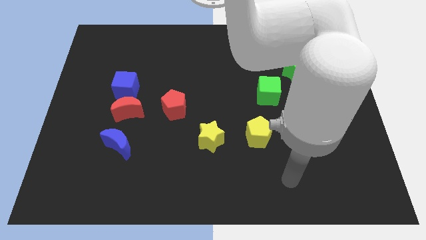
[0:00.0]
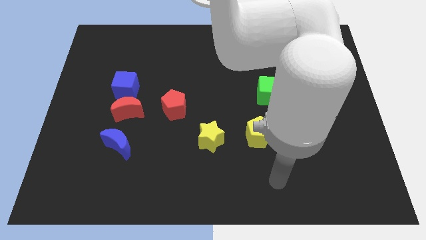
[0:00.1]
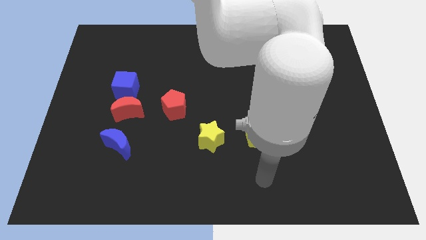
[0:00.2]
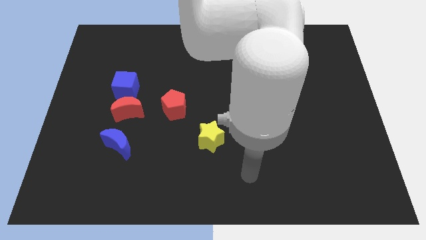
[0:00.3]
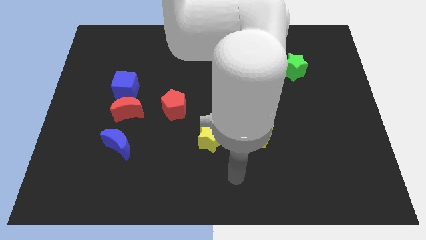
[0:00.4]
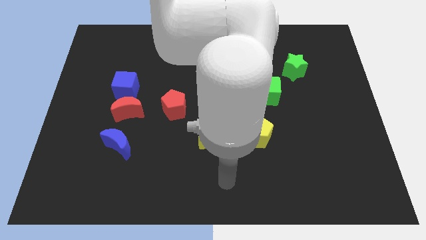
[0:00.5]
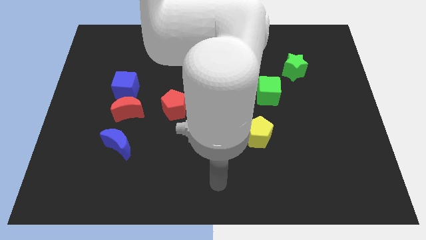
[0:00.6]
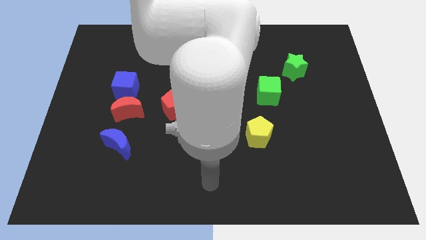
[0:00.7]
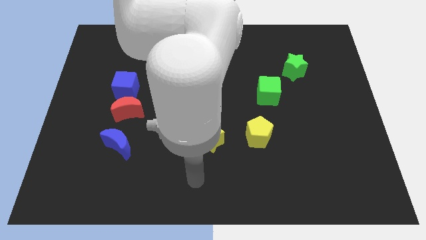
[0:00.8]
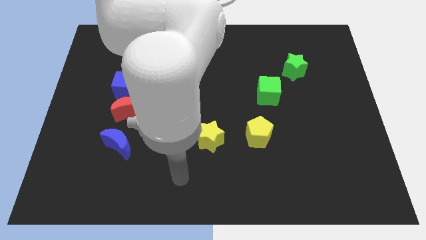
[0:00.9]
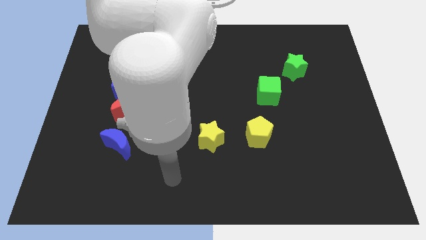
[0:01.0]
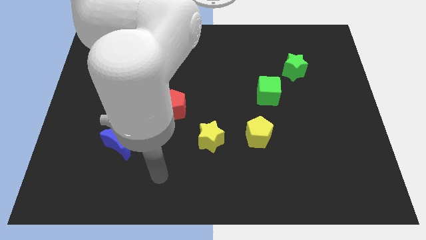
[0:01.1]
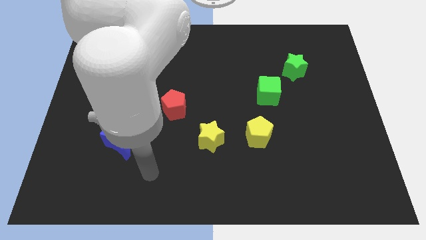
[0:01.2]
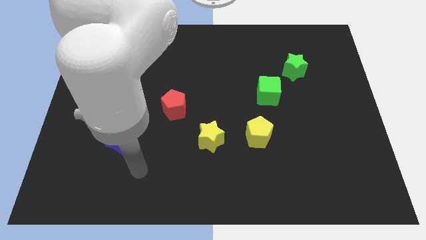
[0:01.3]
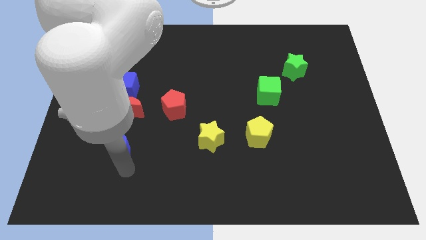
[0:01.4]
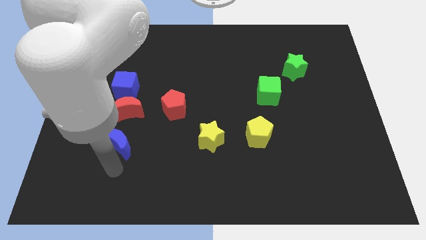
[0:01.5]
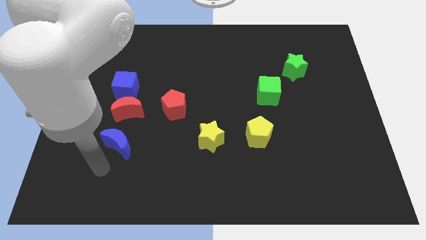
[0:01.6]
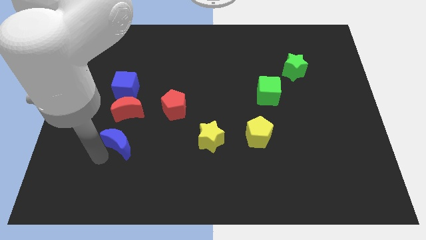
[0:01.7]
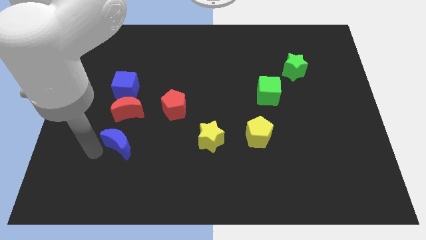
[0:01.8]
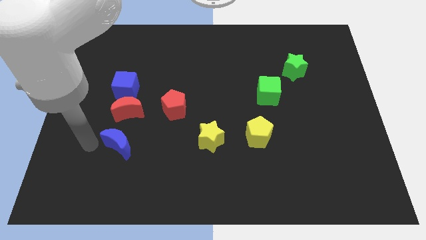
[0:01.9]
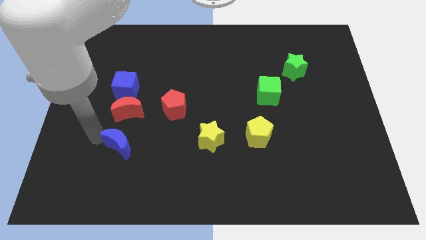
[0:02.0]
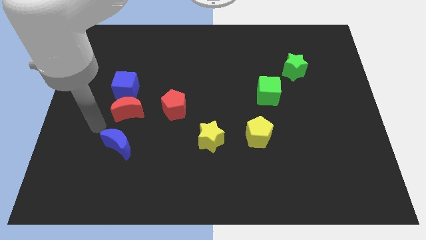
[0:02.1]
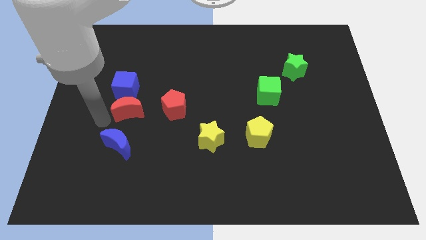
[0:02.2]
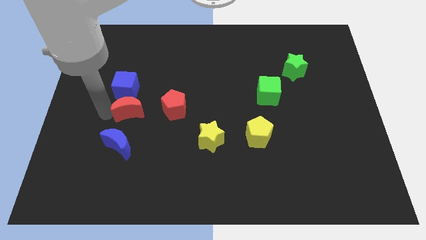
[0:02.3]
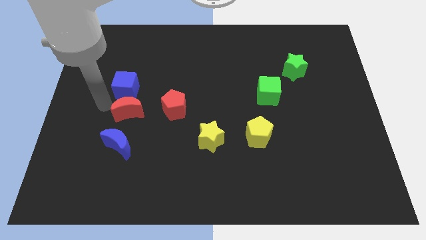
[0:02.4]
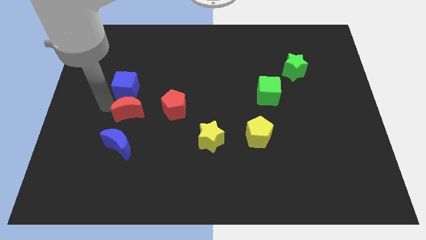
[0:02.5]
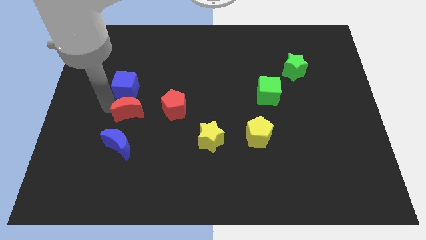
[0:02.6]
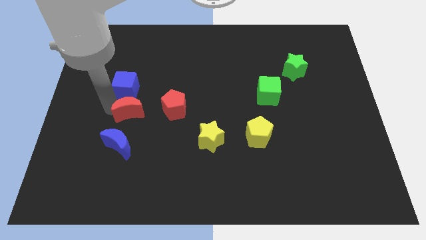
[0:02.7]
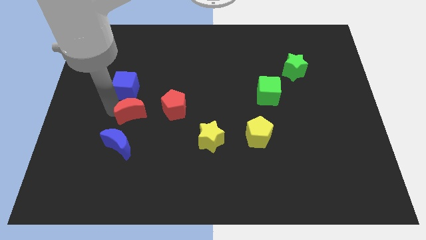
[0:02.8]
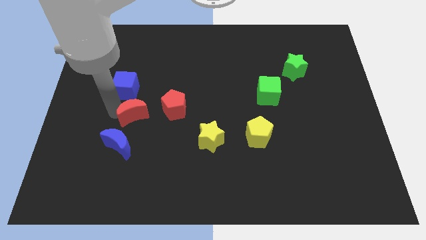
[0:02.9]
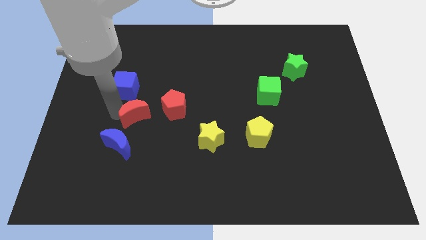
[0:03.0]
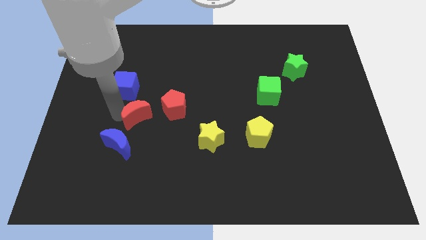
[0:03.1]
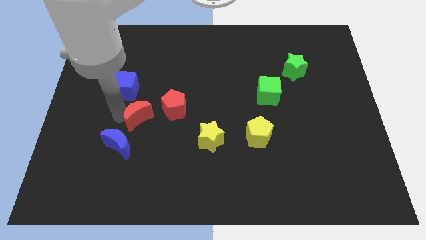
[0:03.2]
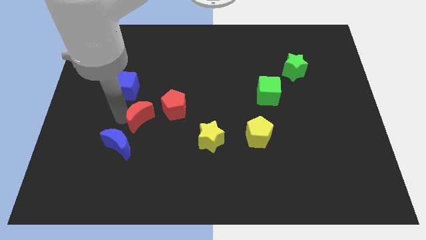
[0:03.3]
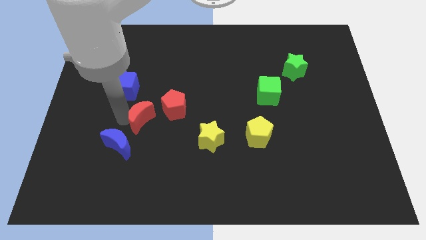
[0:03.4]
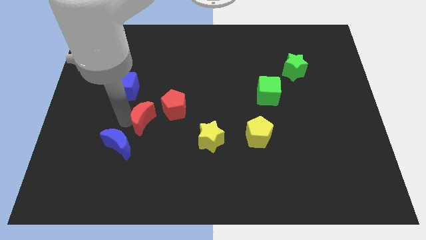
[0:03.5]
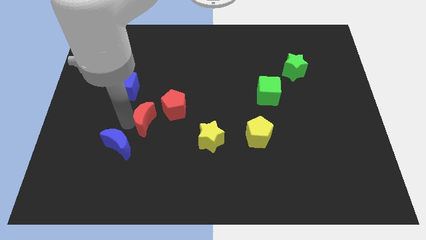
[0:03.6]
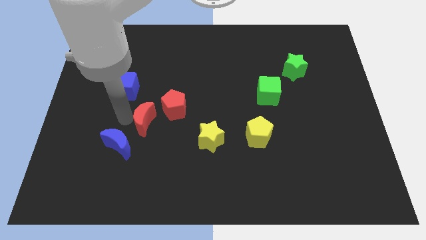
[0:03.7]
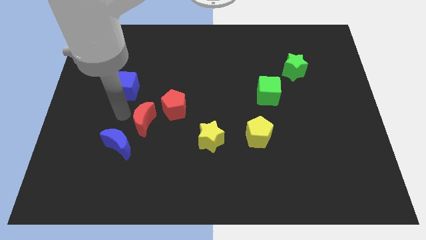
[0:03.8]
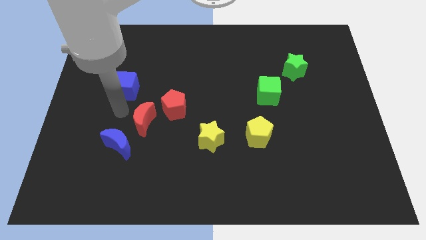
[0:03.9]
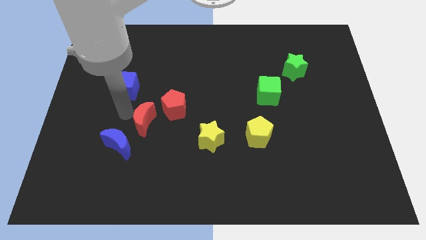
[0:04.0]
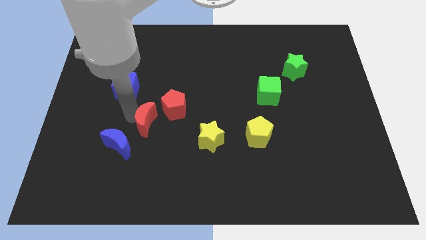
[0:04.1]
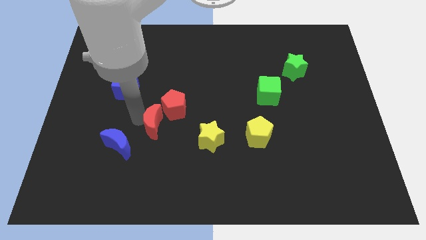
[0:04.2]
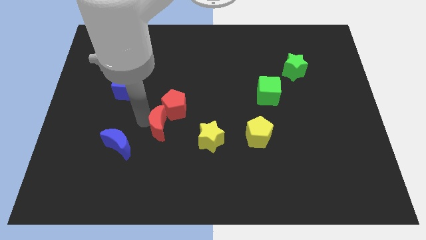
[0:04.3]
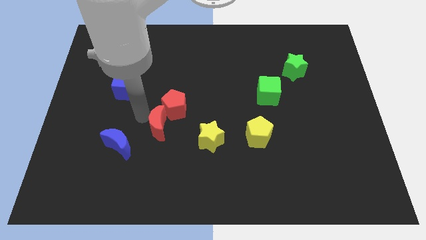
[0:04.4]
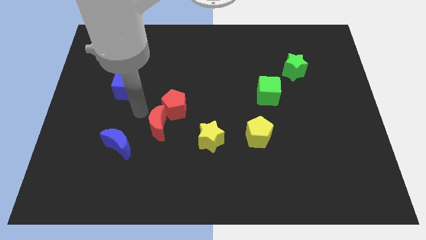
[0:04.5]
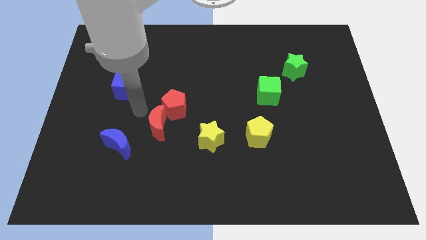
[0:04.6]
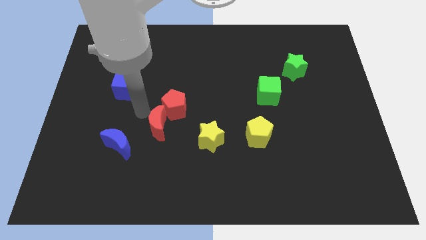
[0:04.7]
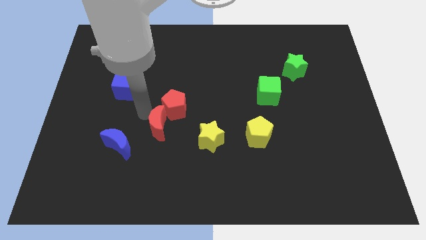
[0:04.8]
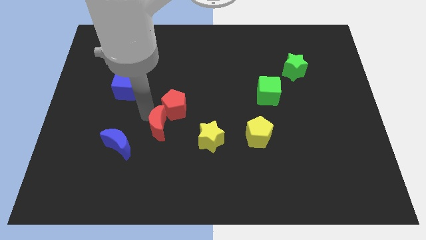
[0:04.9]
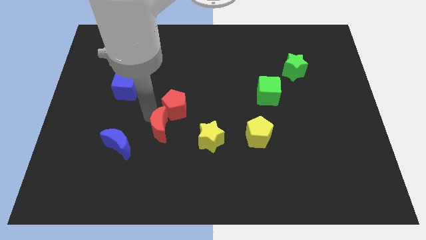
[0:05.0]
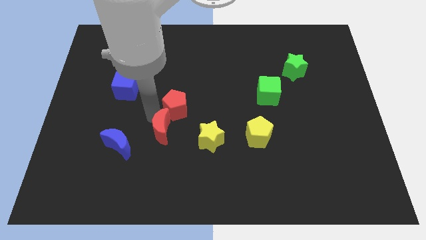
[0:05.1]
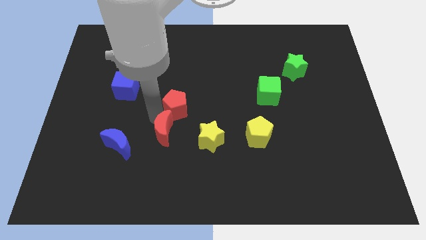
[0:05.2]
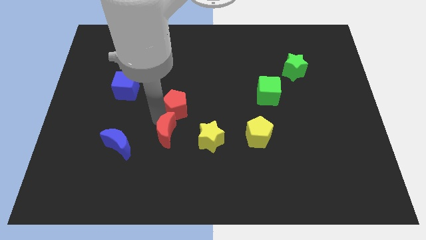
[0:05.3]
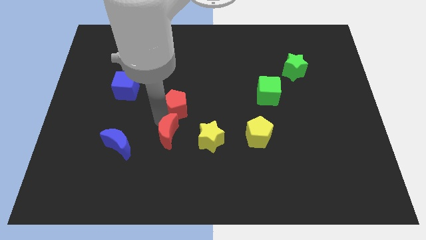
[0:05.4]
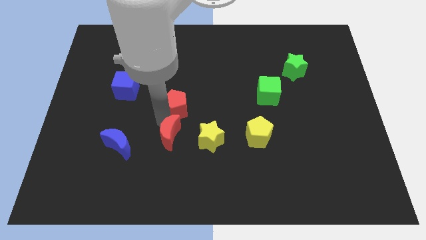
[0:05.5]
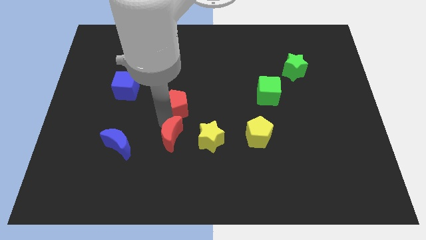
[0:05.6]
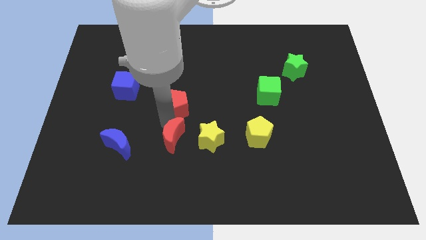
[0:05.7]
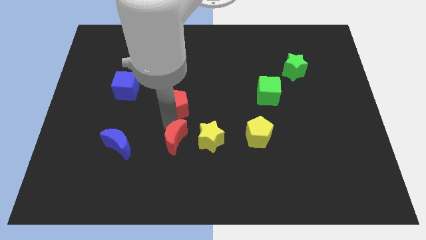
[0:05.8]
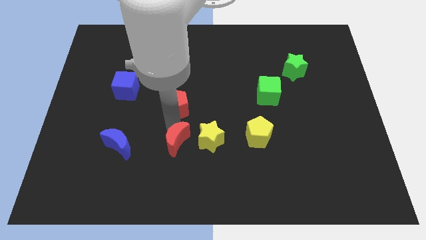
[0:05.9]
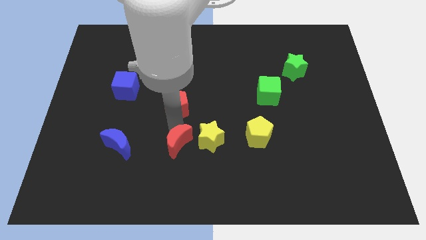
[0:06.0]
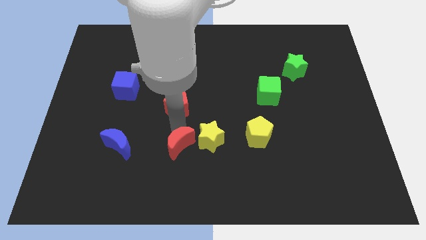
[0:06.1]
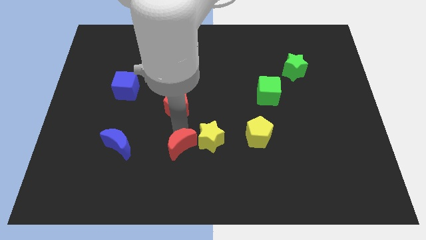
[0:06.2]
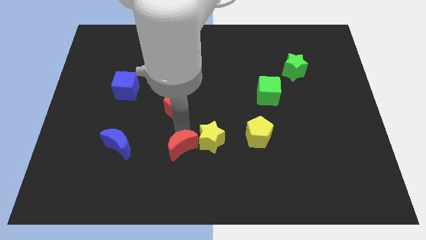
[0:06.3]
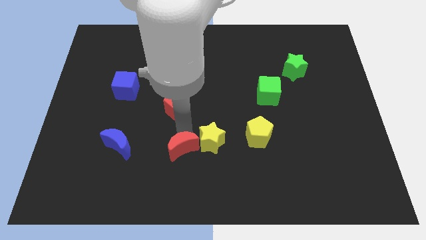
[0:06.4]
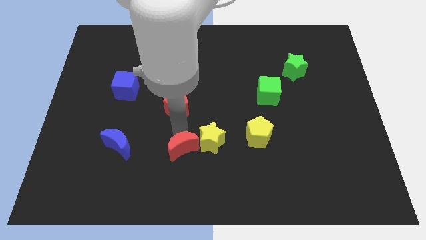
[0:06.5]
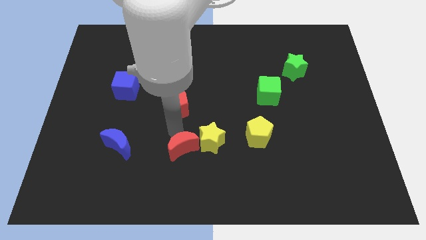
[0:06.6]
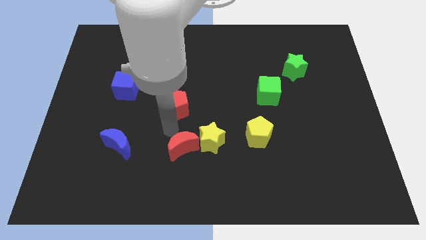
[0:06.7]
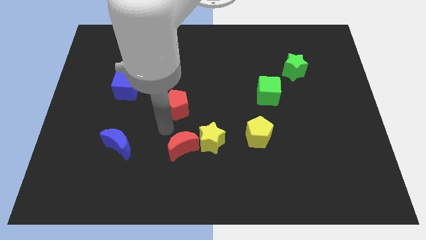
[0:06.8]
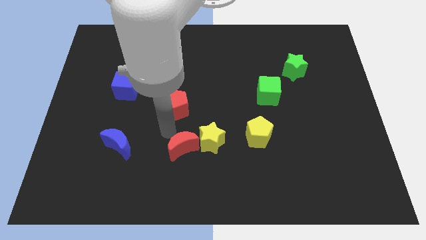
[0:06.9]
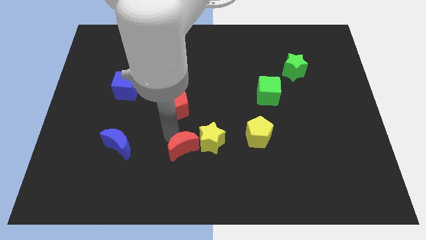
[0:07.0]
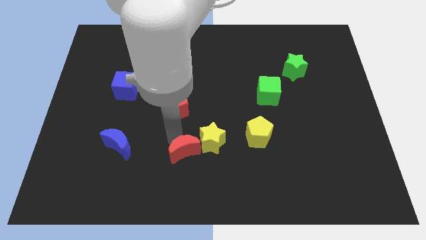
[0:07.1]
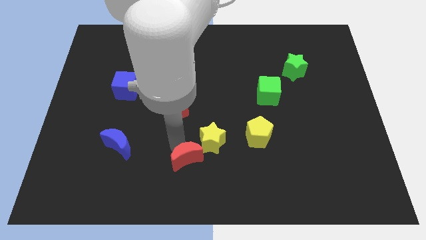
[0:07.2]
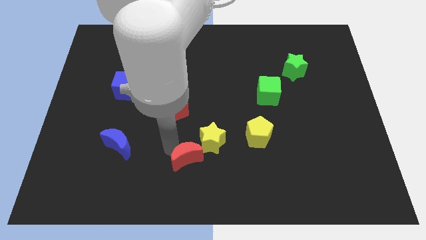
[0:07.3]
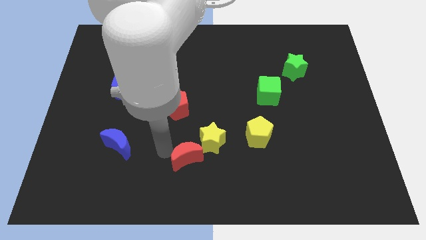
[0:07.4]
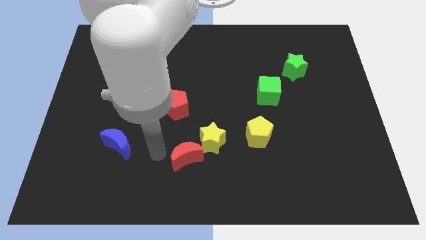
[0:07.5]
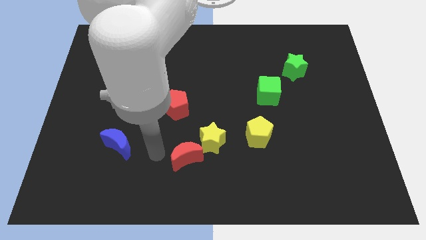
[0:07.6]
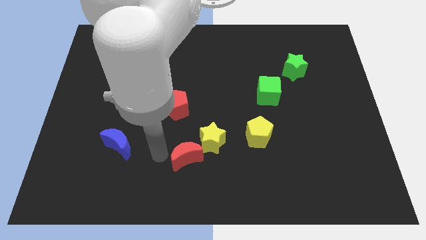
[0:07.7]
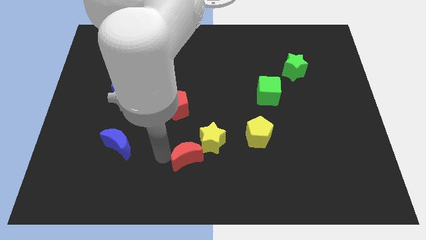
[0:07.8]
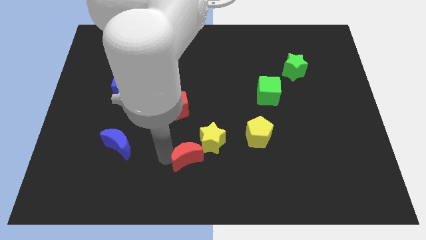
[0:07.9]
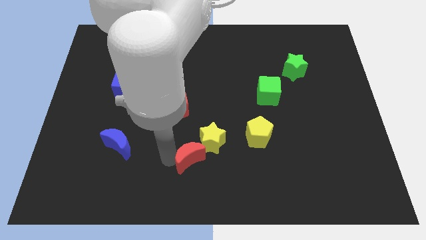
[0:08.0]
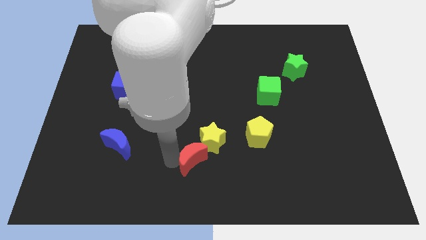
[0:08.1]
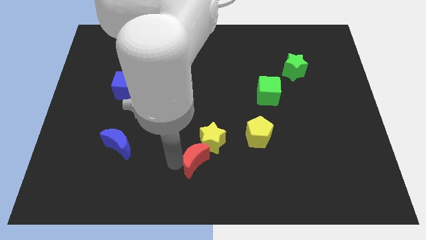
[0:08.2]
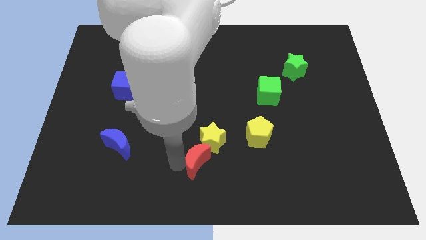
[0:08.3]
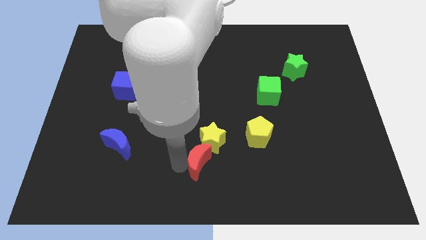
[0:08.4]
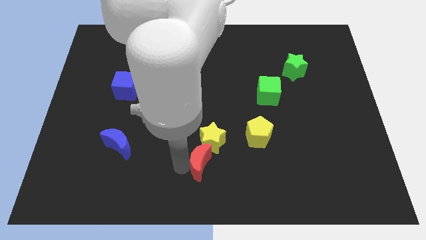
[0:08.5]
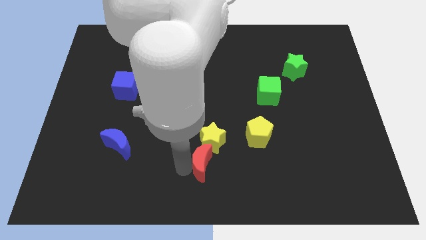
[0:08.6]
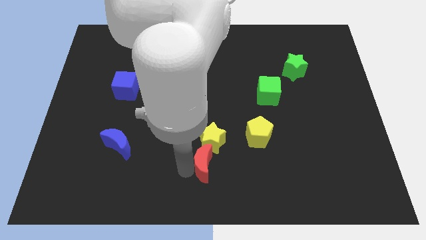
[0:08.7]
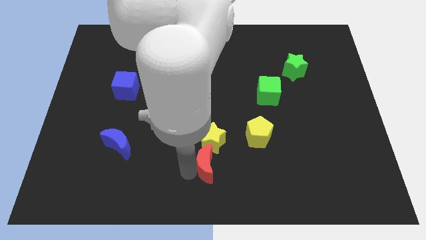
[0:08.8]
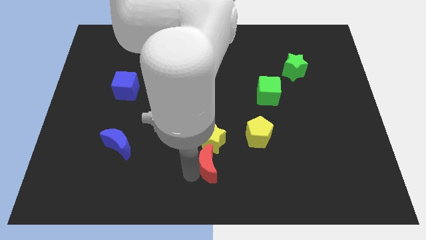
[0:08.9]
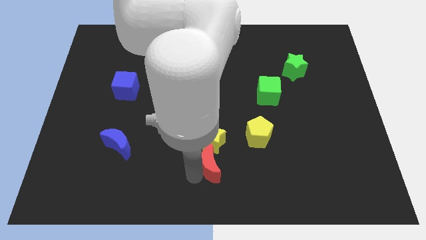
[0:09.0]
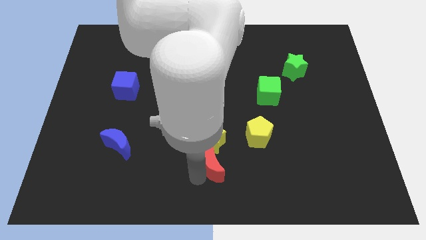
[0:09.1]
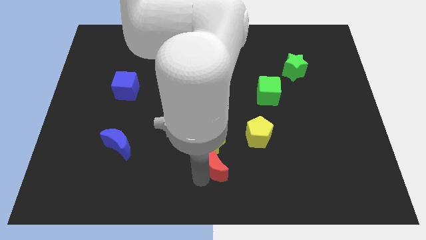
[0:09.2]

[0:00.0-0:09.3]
move the red moon to the bottom left side of the yellow pentagon
